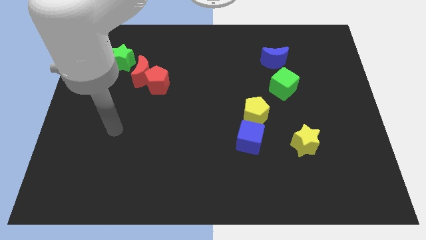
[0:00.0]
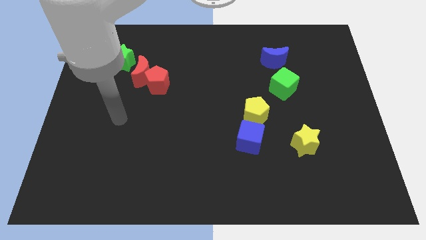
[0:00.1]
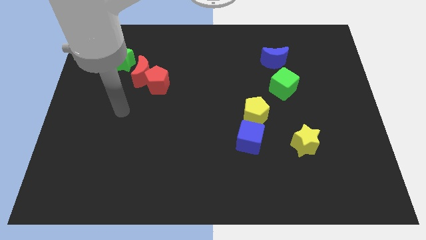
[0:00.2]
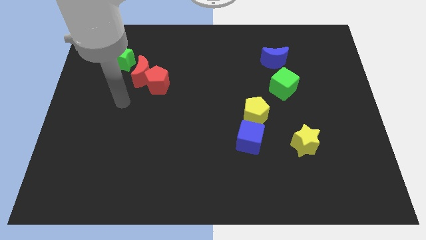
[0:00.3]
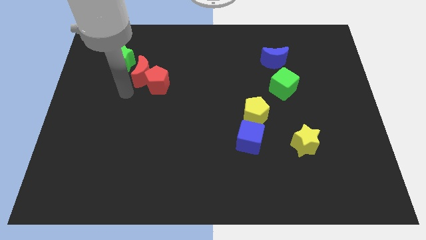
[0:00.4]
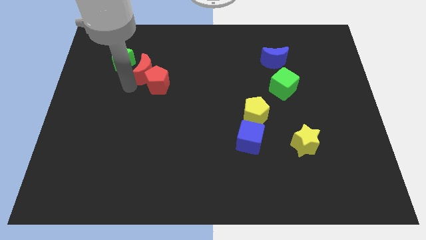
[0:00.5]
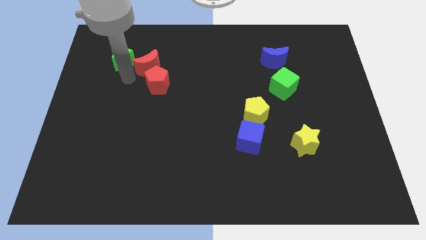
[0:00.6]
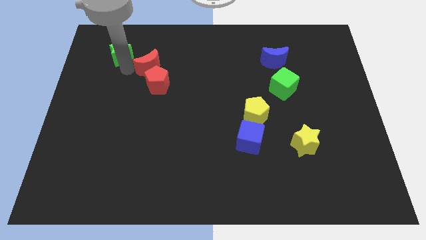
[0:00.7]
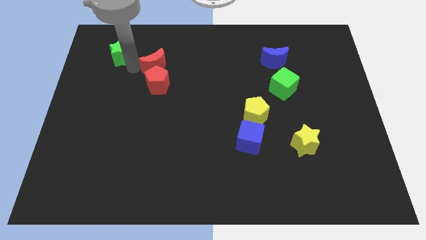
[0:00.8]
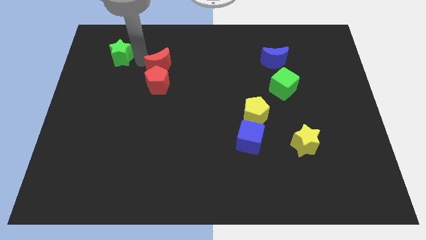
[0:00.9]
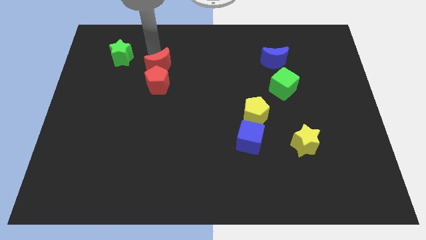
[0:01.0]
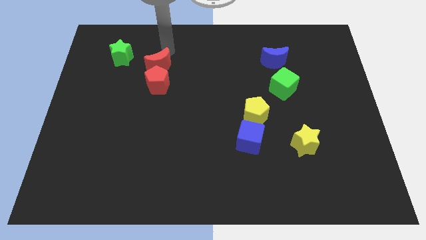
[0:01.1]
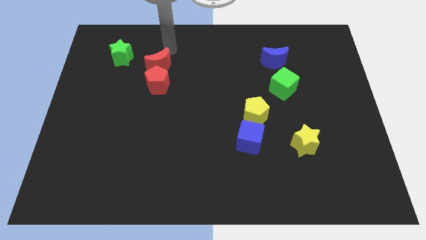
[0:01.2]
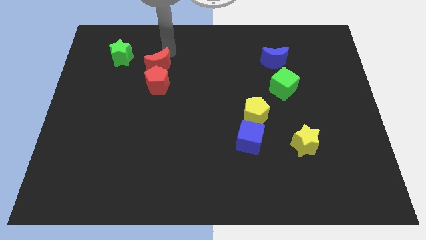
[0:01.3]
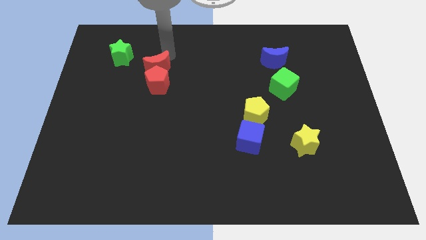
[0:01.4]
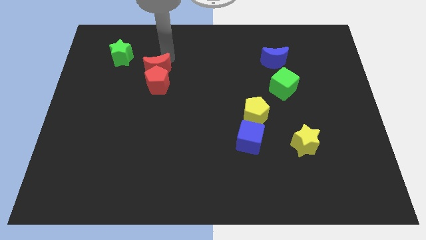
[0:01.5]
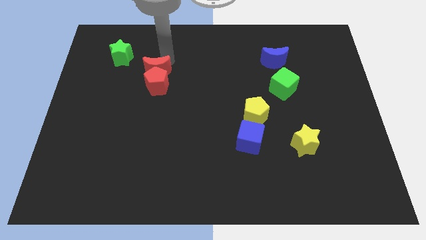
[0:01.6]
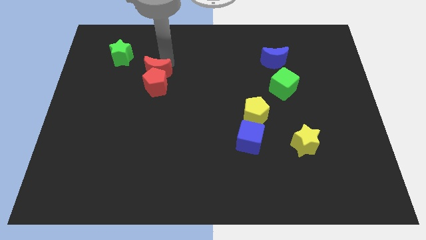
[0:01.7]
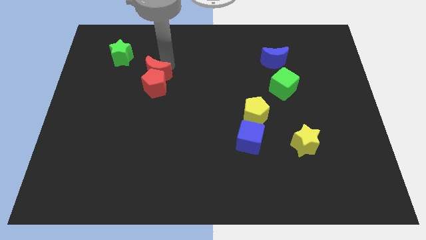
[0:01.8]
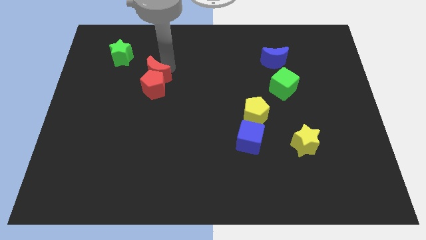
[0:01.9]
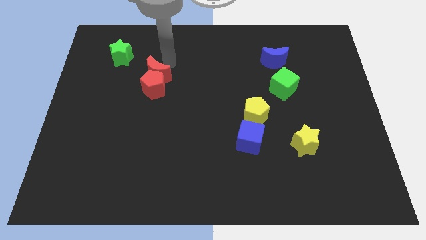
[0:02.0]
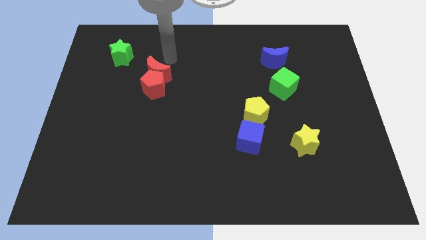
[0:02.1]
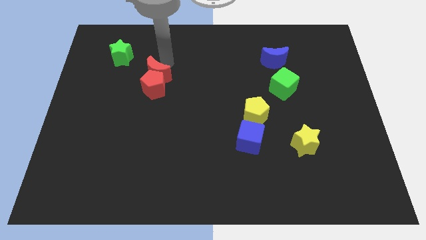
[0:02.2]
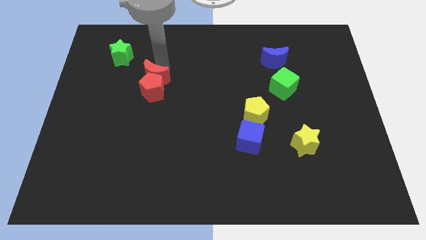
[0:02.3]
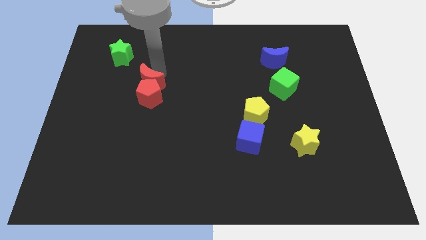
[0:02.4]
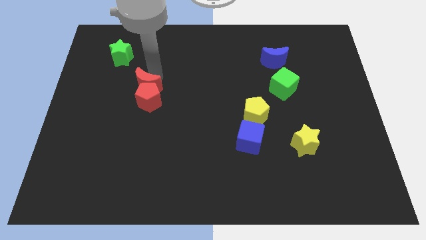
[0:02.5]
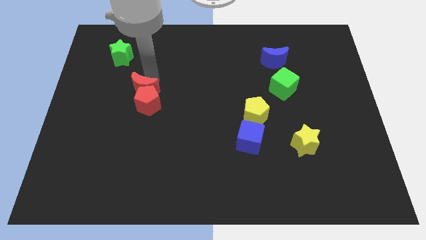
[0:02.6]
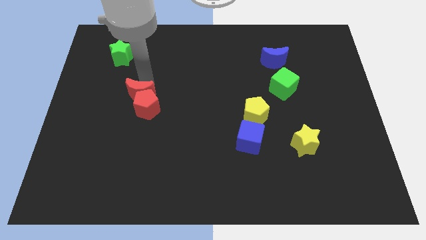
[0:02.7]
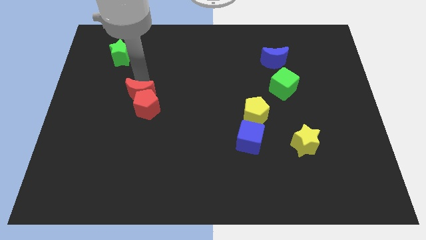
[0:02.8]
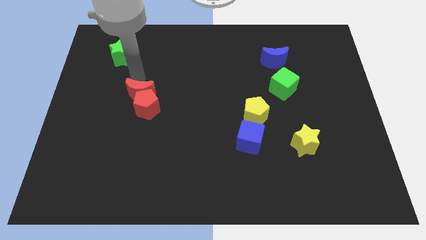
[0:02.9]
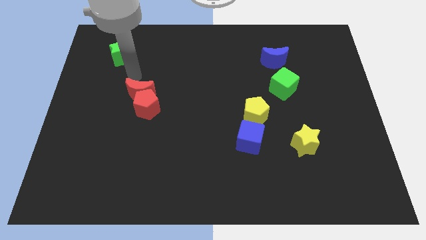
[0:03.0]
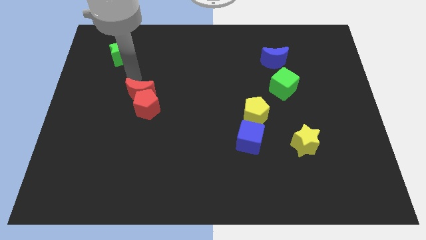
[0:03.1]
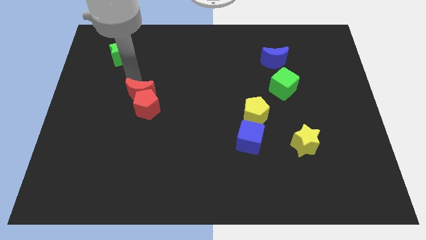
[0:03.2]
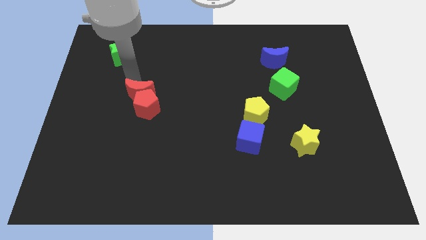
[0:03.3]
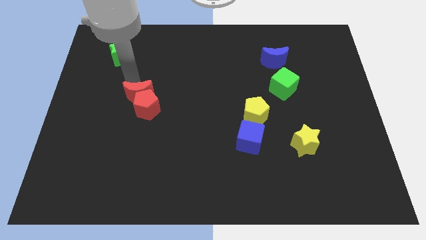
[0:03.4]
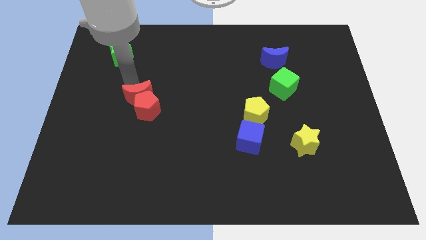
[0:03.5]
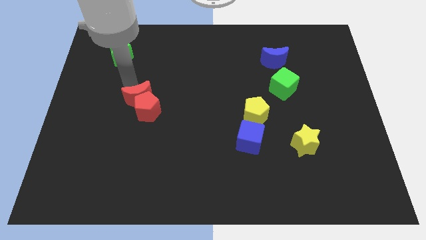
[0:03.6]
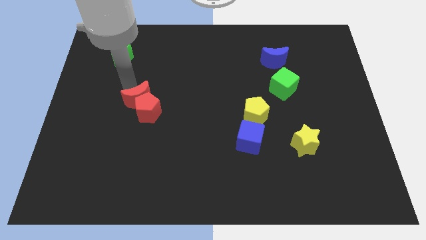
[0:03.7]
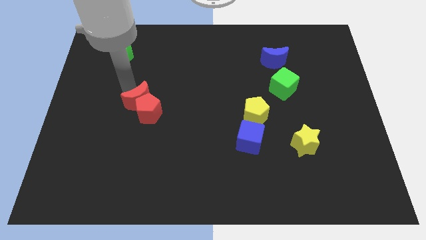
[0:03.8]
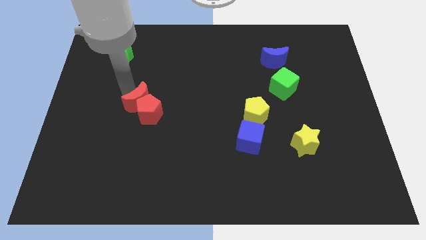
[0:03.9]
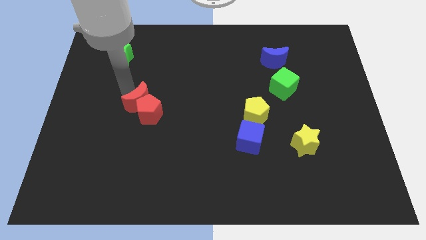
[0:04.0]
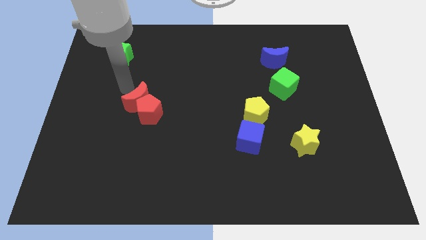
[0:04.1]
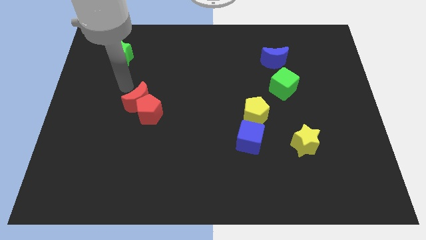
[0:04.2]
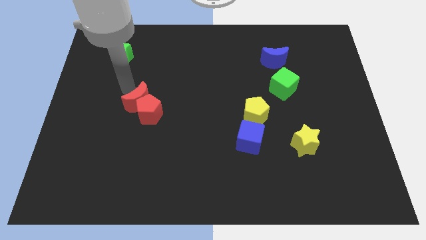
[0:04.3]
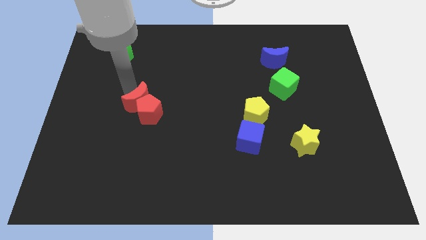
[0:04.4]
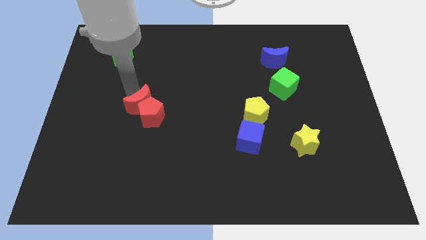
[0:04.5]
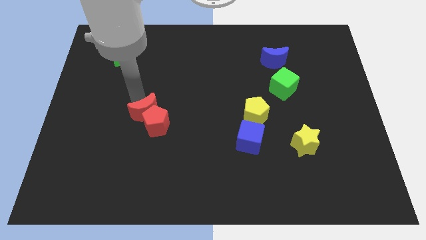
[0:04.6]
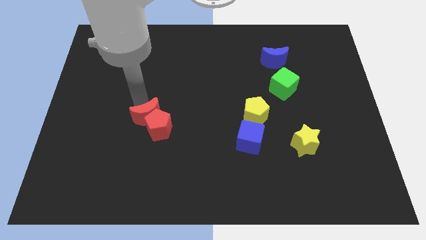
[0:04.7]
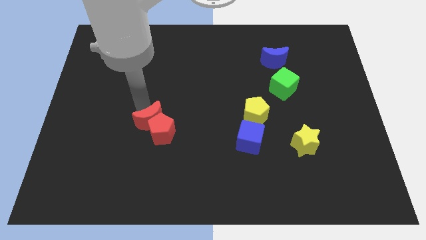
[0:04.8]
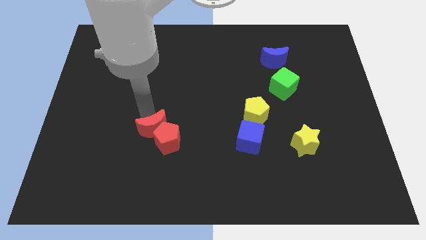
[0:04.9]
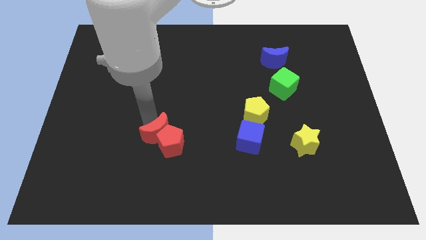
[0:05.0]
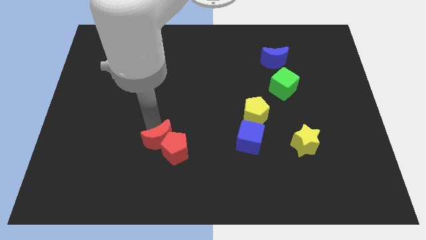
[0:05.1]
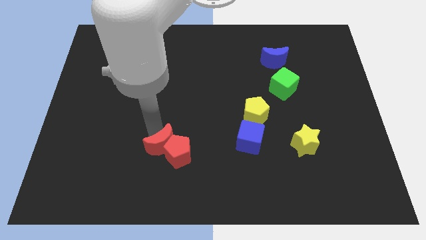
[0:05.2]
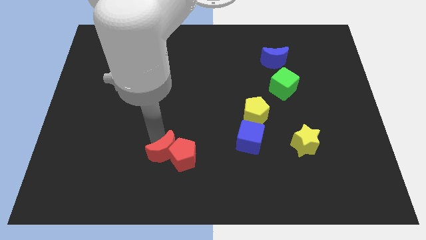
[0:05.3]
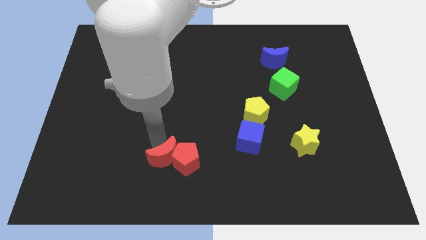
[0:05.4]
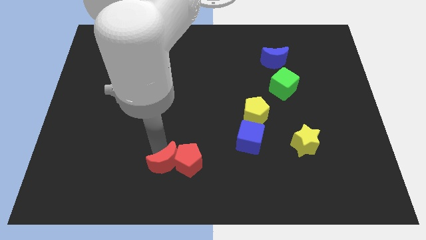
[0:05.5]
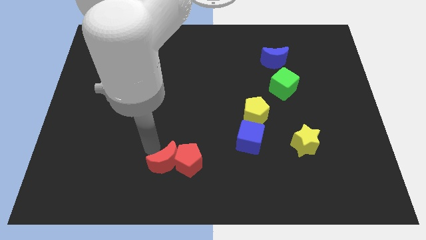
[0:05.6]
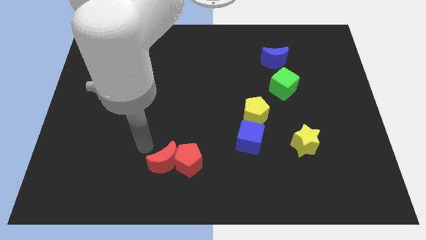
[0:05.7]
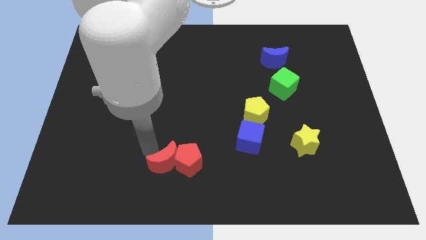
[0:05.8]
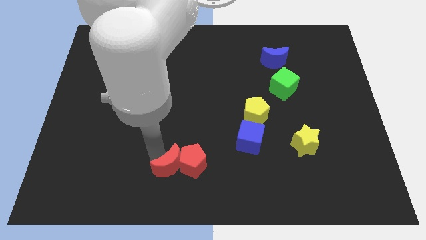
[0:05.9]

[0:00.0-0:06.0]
push the red moon to the bottom side

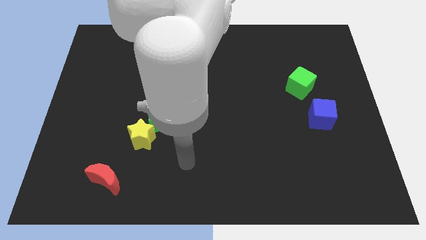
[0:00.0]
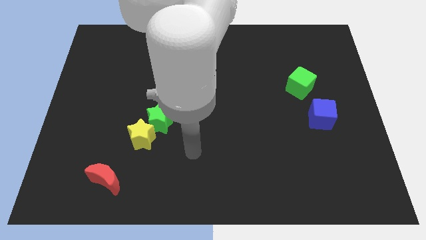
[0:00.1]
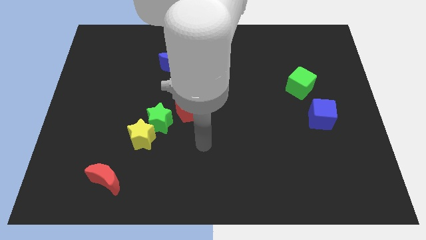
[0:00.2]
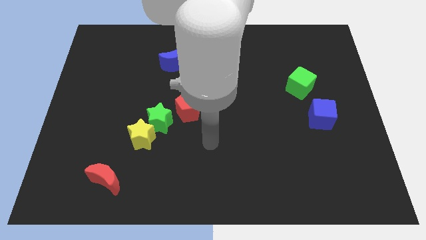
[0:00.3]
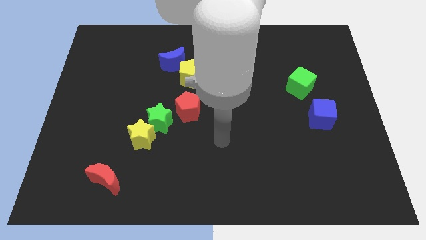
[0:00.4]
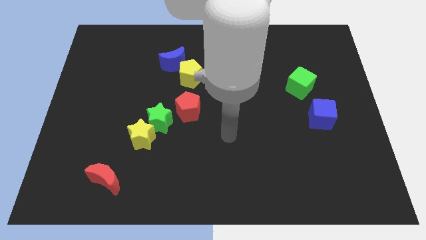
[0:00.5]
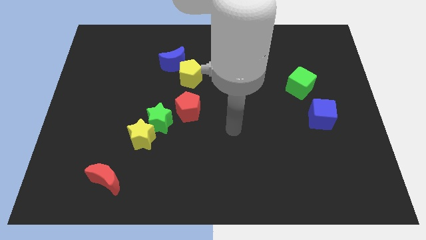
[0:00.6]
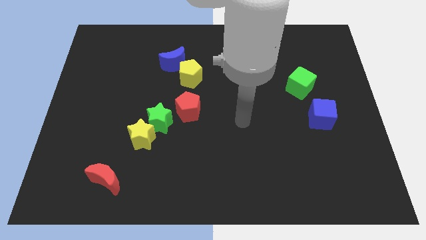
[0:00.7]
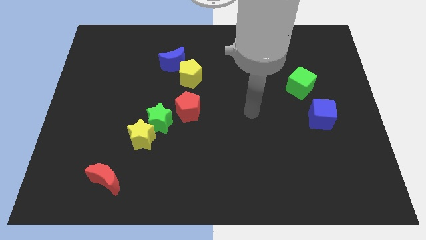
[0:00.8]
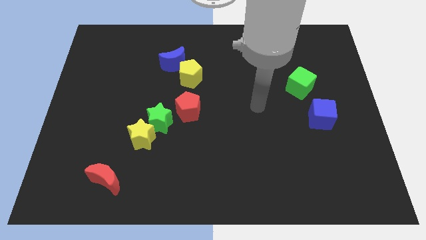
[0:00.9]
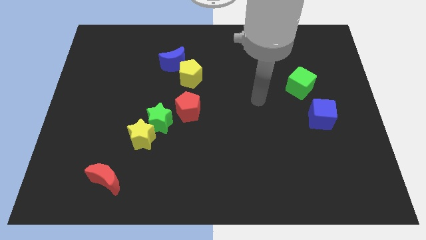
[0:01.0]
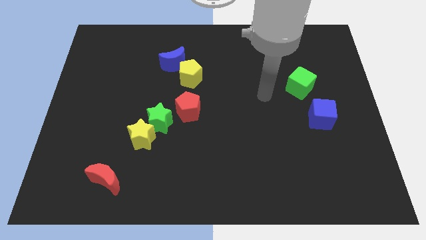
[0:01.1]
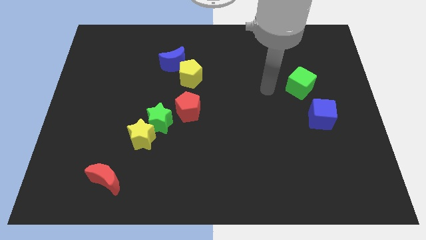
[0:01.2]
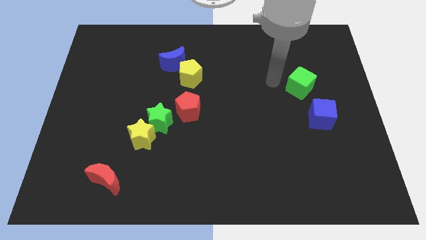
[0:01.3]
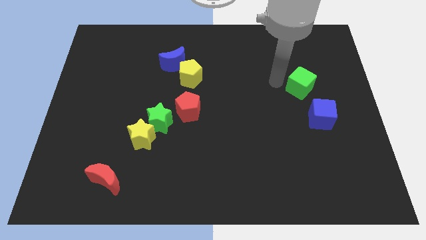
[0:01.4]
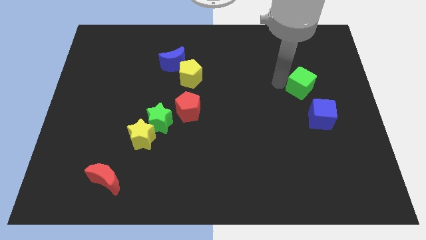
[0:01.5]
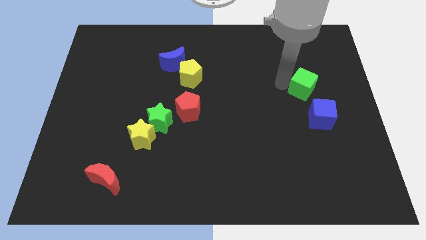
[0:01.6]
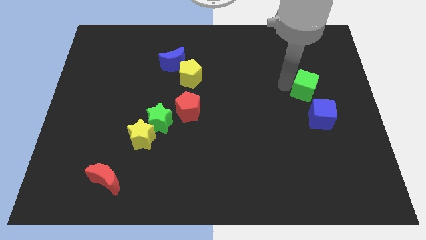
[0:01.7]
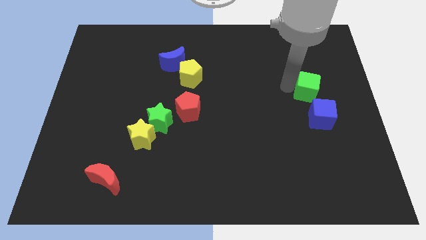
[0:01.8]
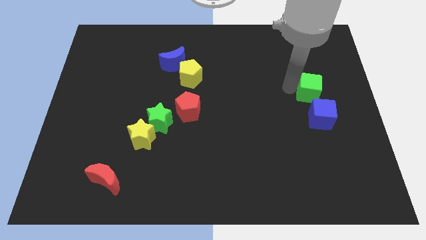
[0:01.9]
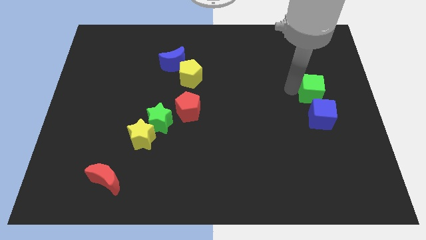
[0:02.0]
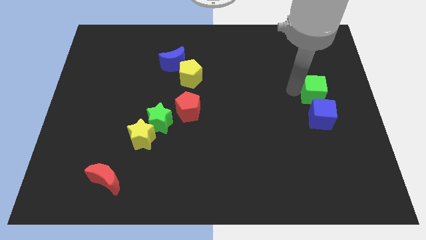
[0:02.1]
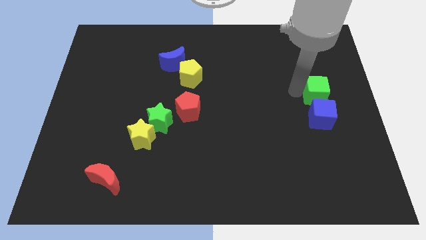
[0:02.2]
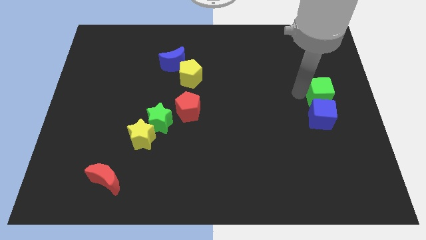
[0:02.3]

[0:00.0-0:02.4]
push the green cube to the right side
